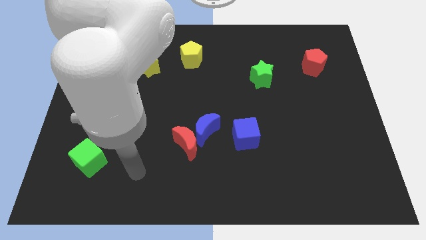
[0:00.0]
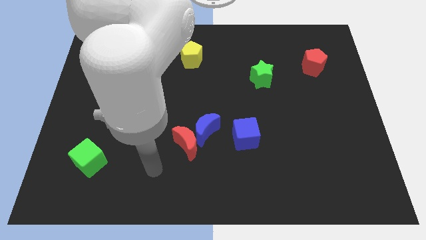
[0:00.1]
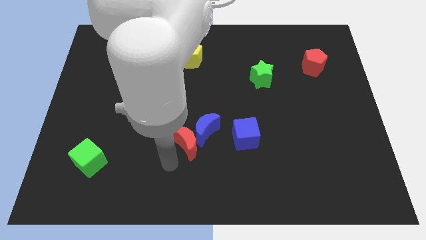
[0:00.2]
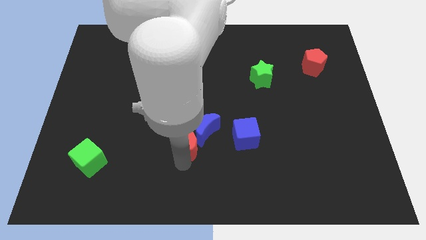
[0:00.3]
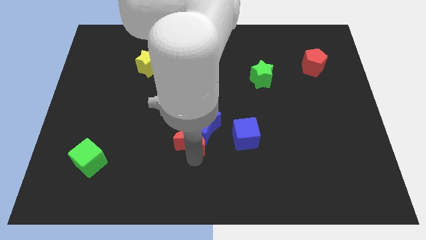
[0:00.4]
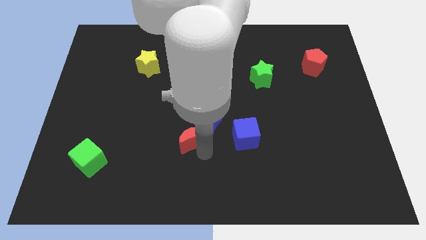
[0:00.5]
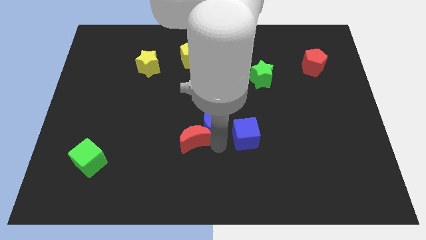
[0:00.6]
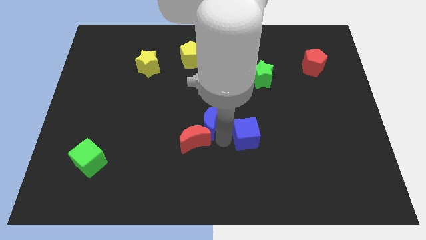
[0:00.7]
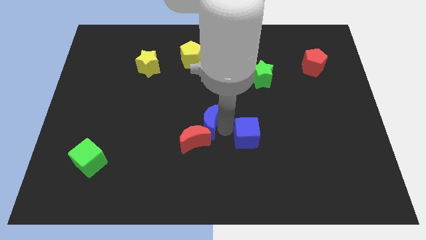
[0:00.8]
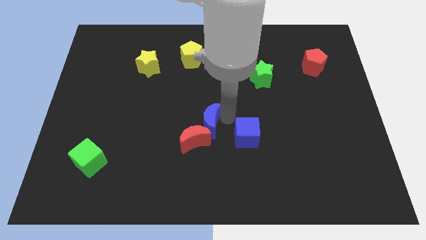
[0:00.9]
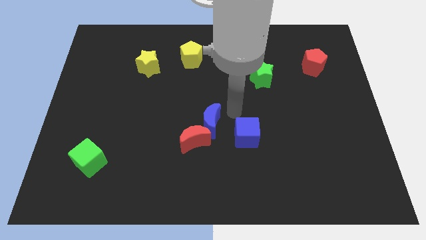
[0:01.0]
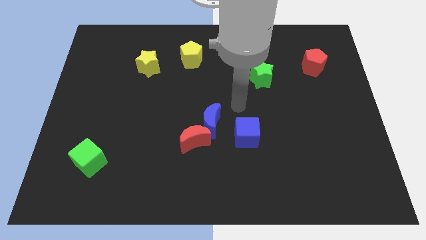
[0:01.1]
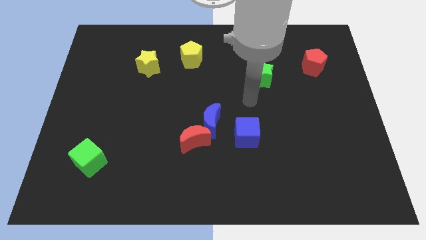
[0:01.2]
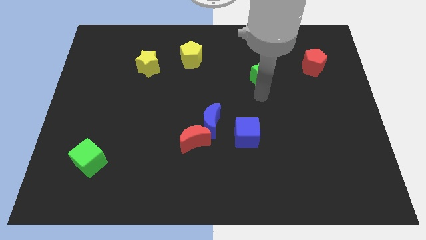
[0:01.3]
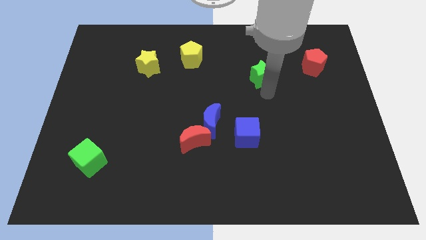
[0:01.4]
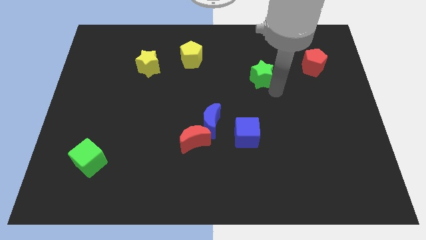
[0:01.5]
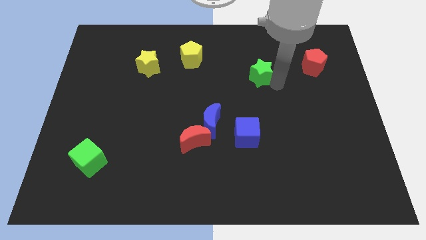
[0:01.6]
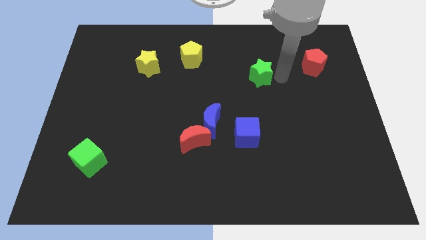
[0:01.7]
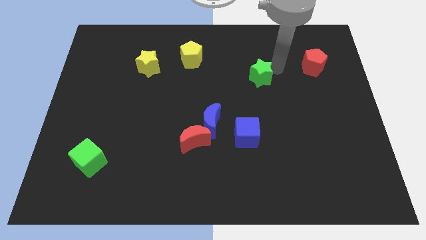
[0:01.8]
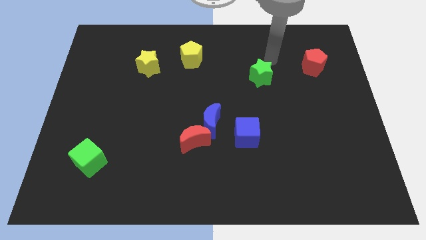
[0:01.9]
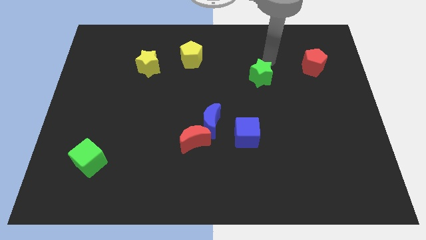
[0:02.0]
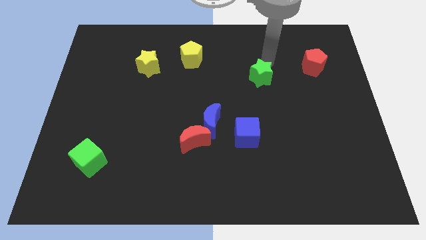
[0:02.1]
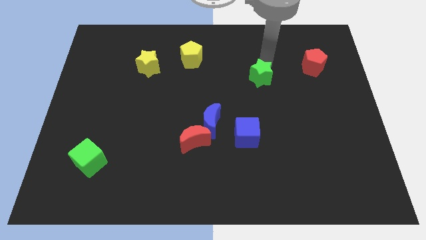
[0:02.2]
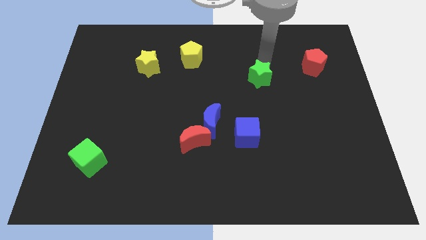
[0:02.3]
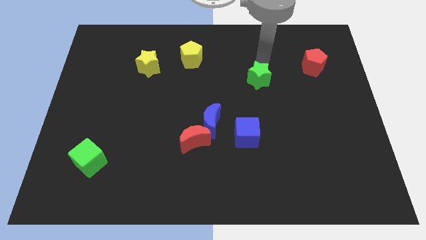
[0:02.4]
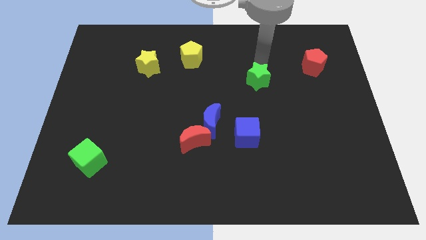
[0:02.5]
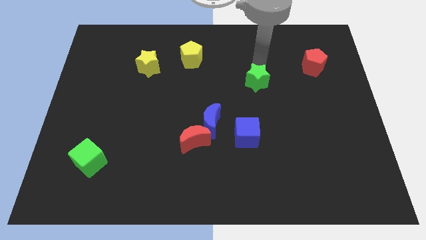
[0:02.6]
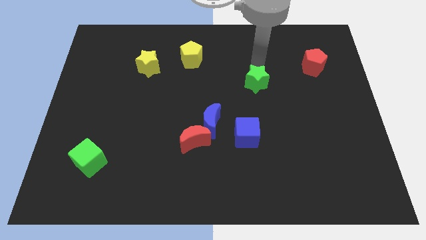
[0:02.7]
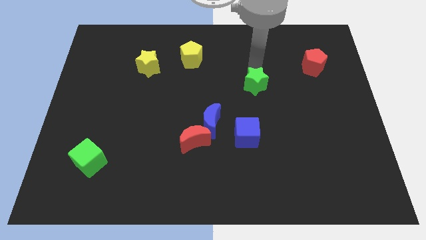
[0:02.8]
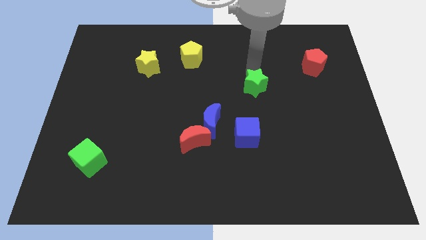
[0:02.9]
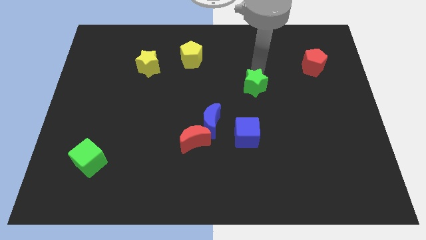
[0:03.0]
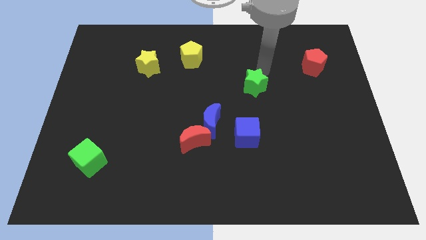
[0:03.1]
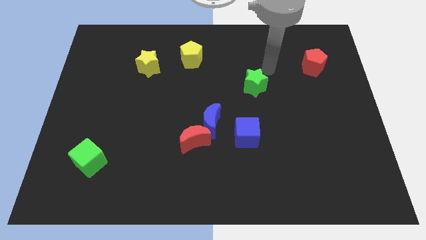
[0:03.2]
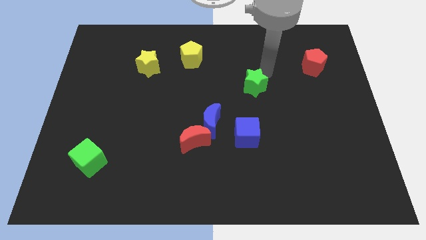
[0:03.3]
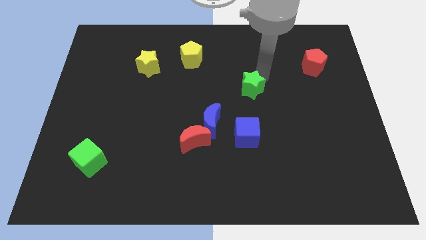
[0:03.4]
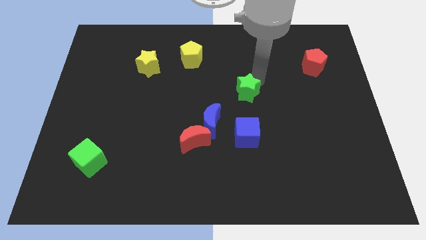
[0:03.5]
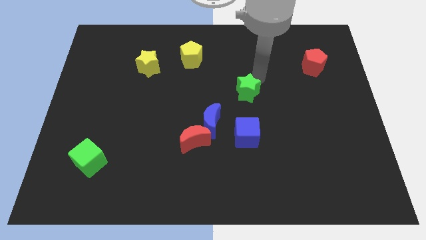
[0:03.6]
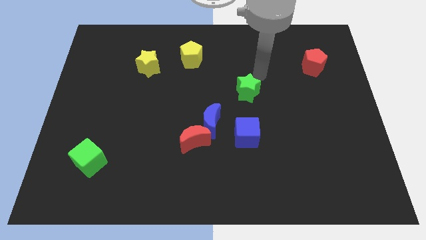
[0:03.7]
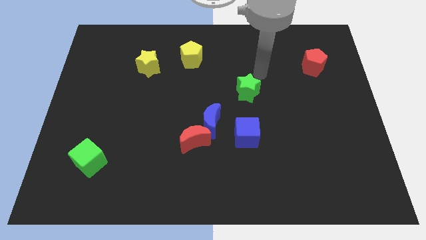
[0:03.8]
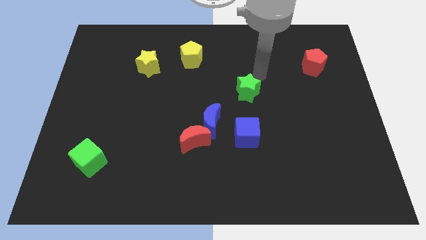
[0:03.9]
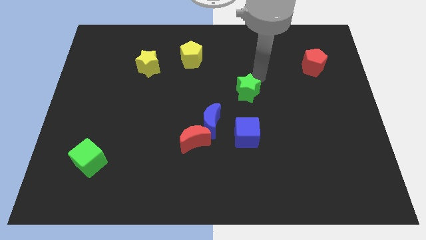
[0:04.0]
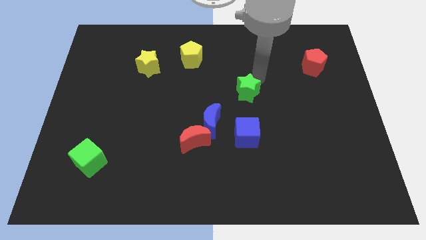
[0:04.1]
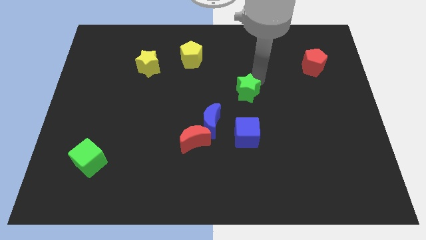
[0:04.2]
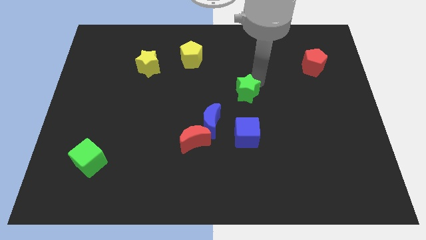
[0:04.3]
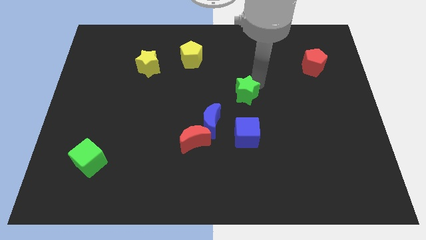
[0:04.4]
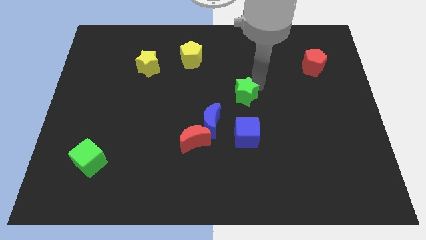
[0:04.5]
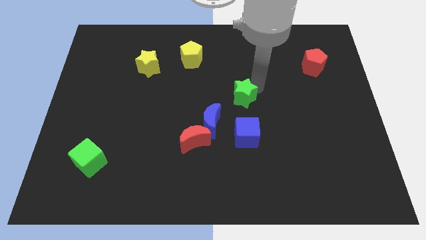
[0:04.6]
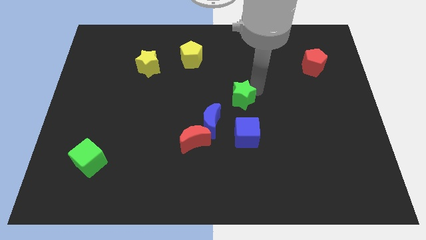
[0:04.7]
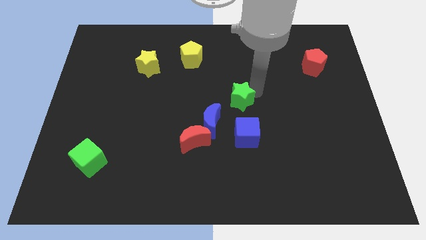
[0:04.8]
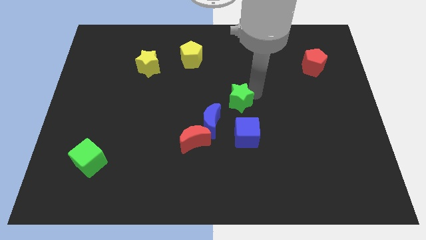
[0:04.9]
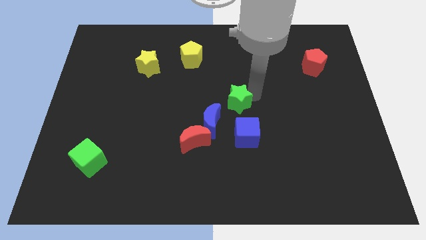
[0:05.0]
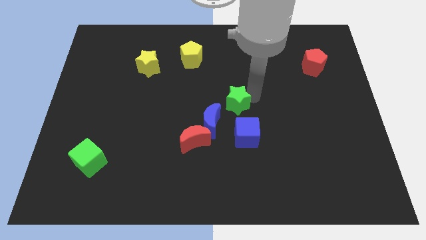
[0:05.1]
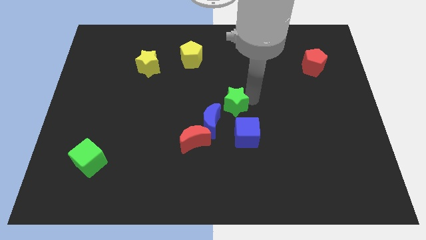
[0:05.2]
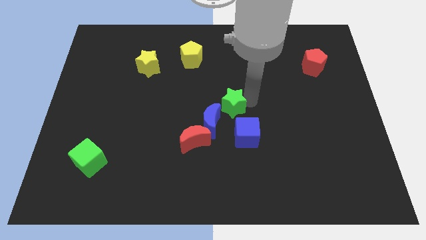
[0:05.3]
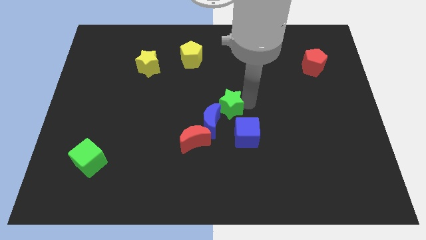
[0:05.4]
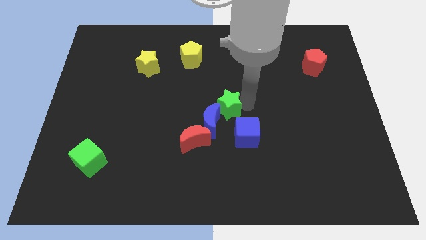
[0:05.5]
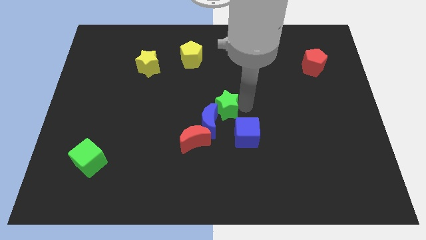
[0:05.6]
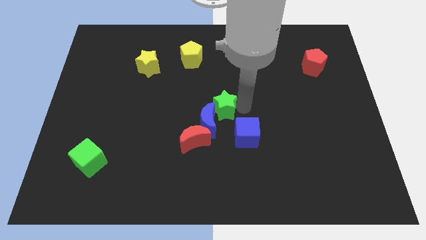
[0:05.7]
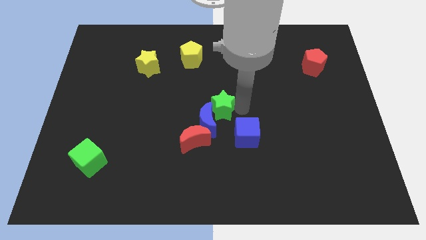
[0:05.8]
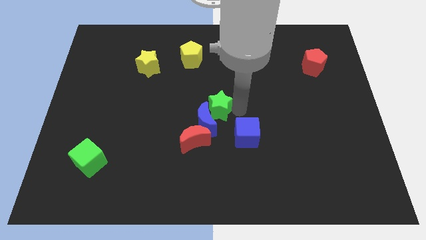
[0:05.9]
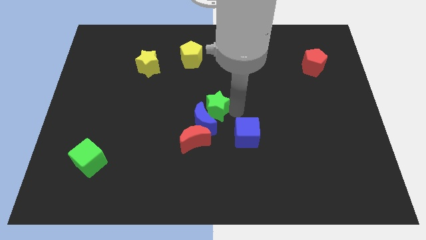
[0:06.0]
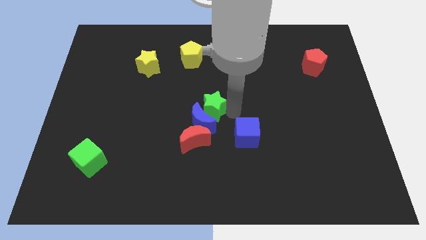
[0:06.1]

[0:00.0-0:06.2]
move the green star above the red moon
